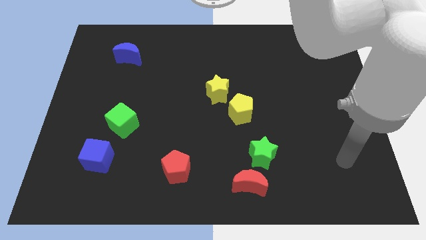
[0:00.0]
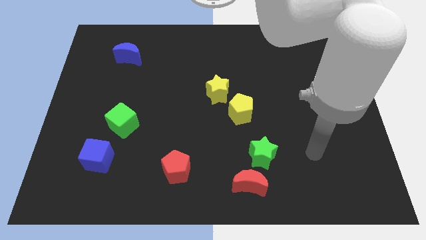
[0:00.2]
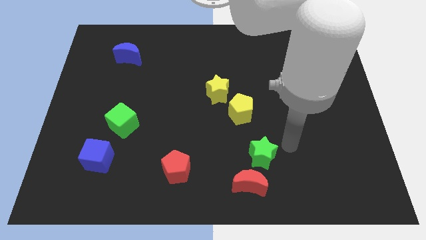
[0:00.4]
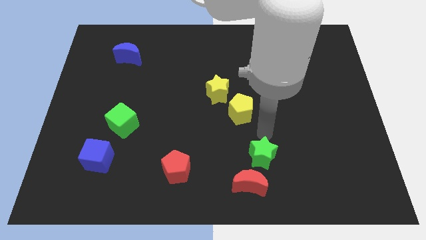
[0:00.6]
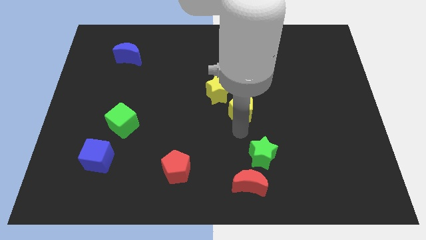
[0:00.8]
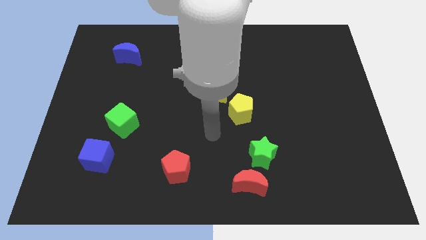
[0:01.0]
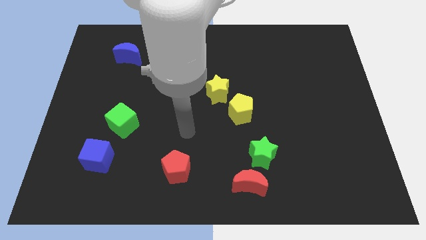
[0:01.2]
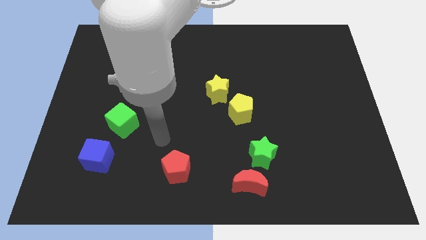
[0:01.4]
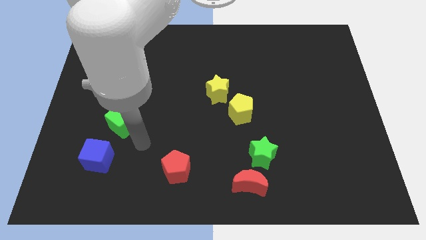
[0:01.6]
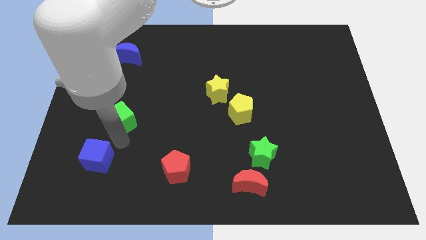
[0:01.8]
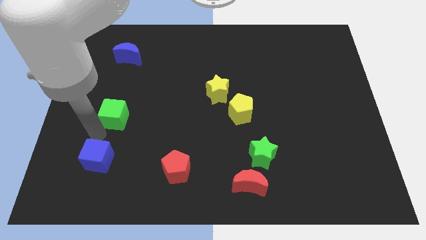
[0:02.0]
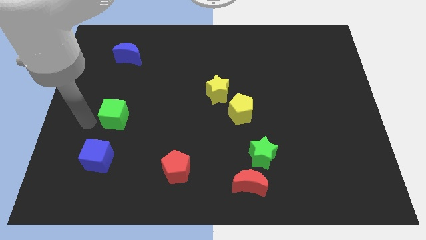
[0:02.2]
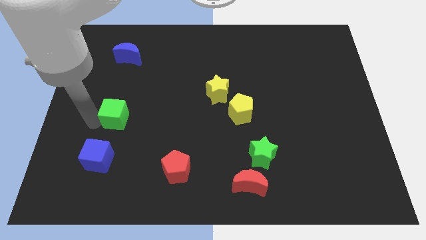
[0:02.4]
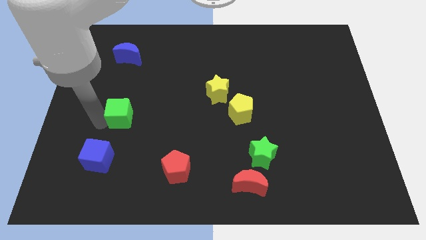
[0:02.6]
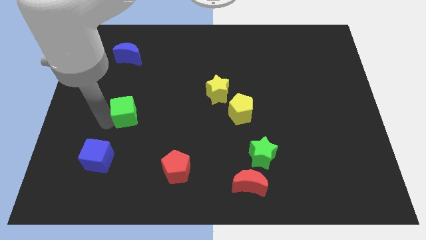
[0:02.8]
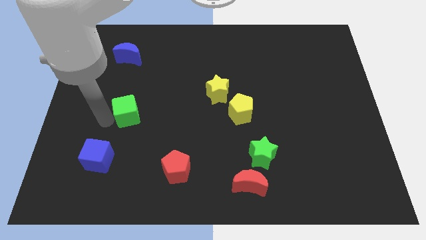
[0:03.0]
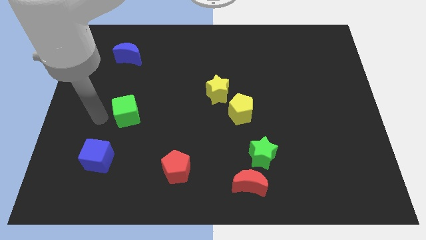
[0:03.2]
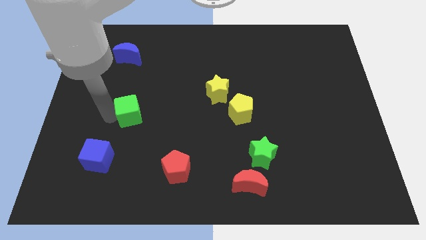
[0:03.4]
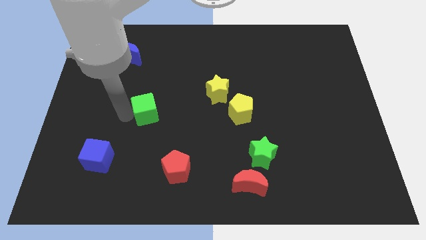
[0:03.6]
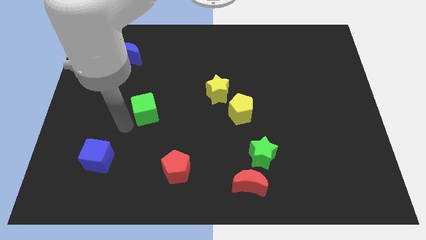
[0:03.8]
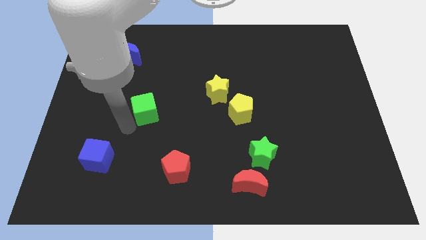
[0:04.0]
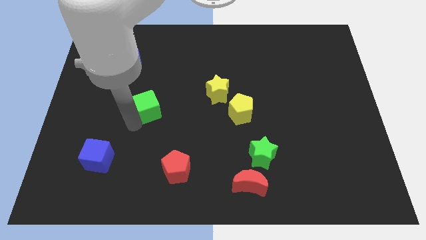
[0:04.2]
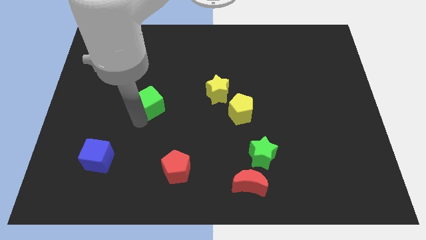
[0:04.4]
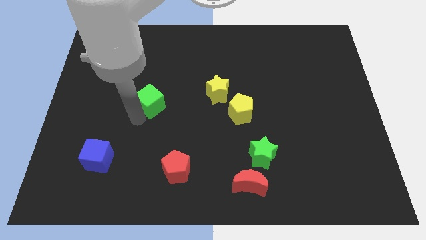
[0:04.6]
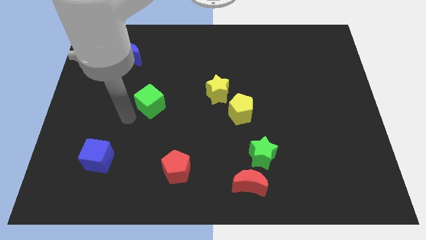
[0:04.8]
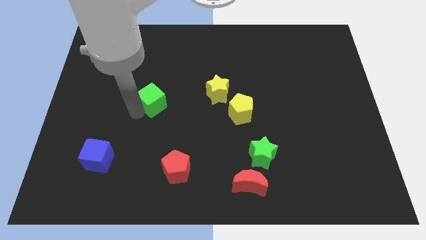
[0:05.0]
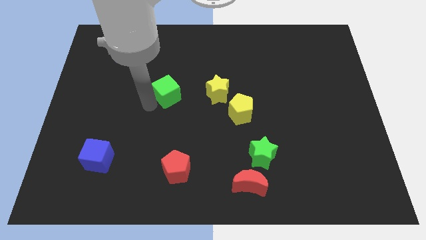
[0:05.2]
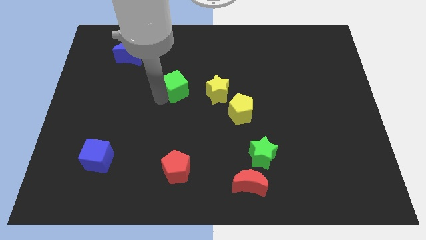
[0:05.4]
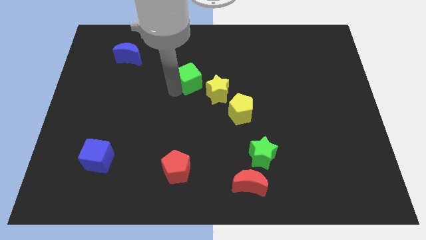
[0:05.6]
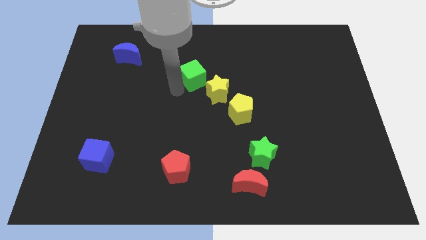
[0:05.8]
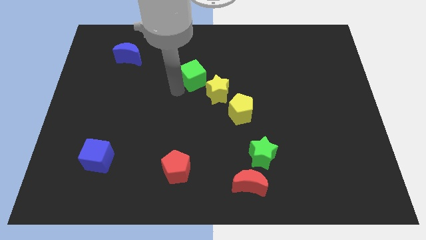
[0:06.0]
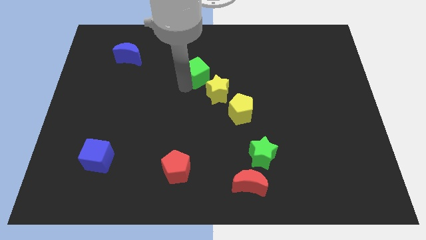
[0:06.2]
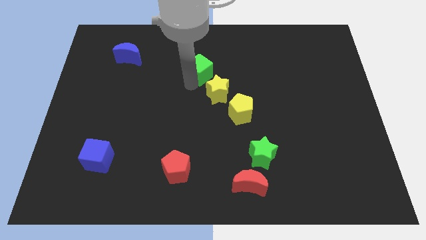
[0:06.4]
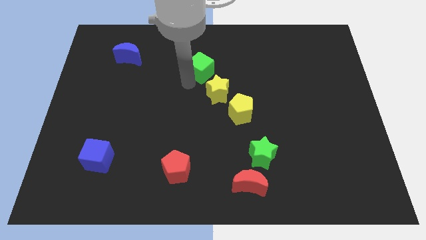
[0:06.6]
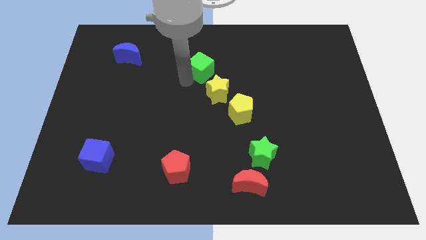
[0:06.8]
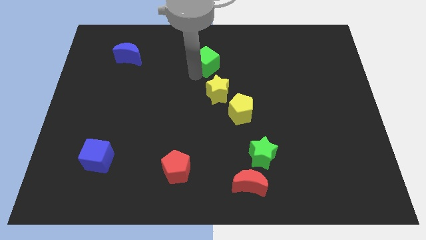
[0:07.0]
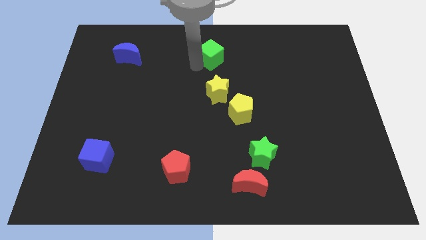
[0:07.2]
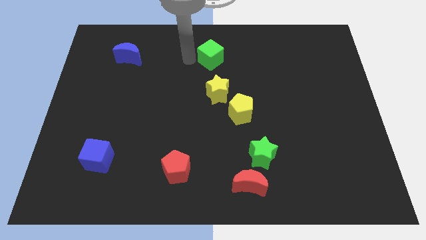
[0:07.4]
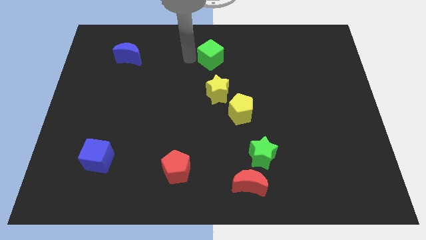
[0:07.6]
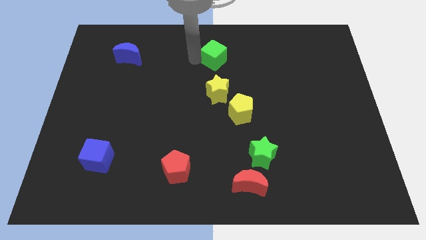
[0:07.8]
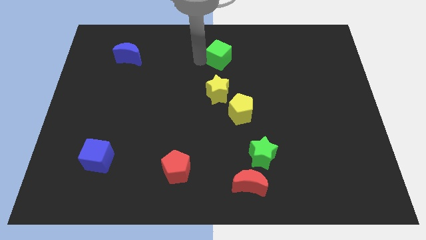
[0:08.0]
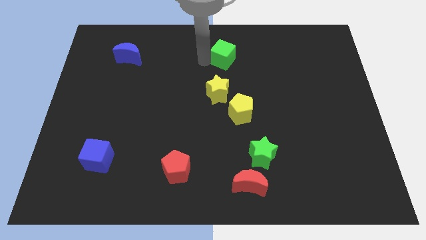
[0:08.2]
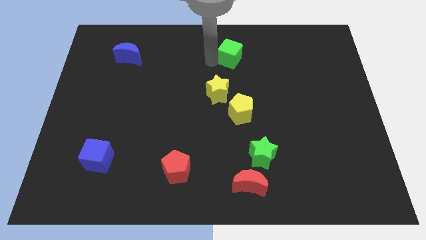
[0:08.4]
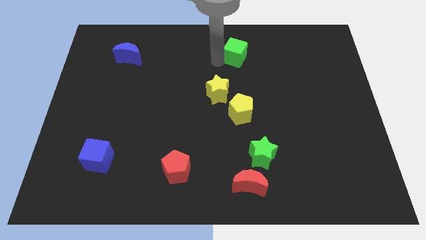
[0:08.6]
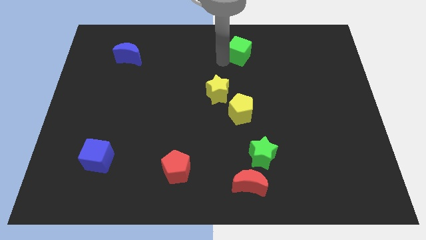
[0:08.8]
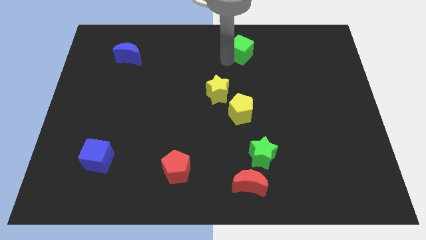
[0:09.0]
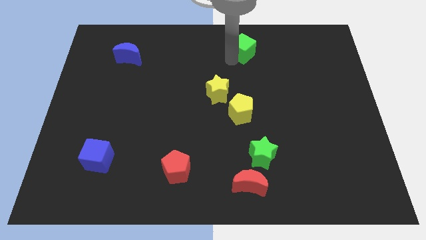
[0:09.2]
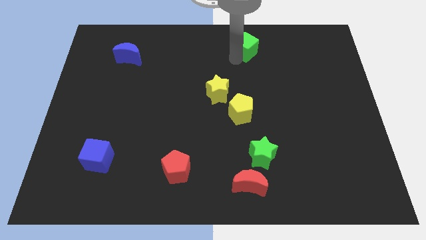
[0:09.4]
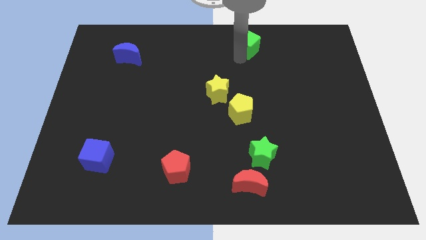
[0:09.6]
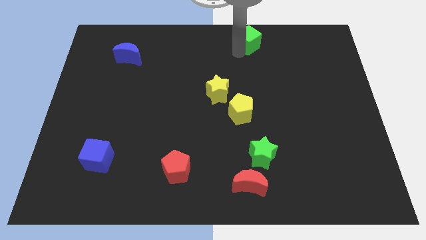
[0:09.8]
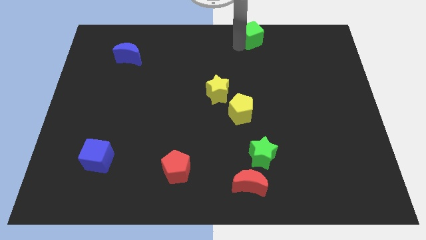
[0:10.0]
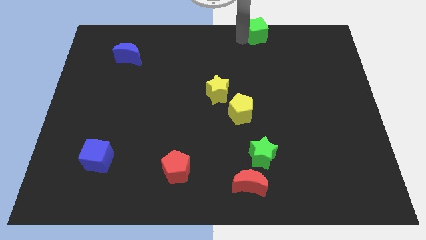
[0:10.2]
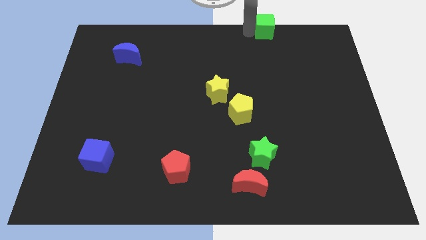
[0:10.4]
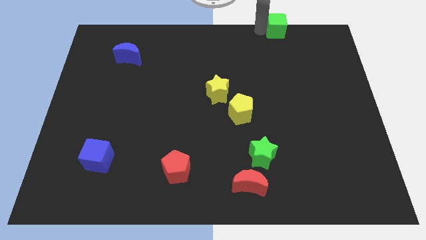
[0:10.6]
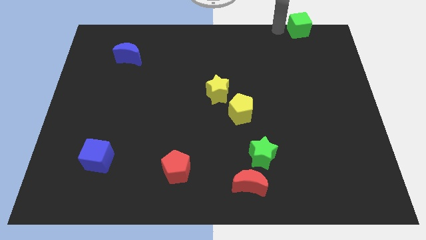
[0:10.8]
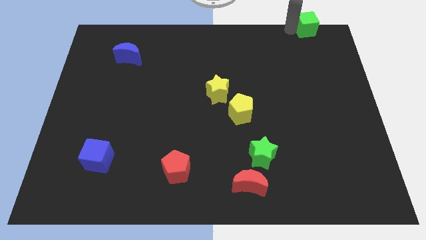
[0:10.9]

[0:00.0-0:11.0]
slide the green cube to the upper right corner

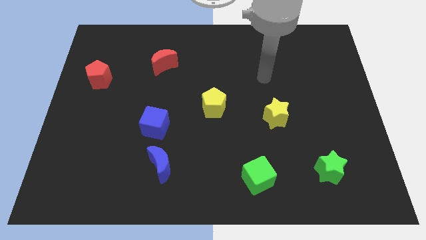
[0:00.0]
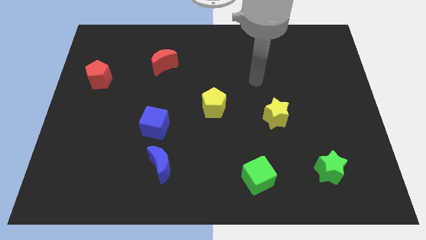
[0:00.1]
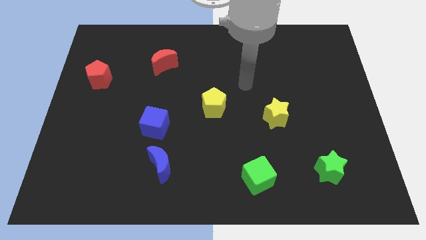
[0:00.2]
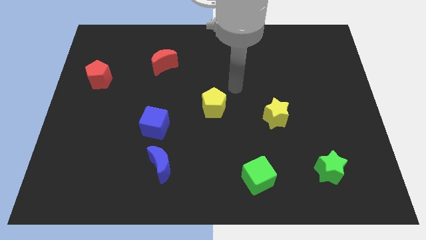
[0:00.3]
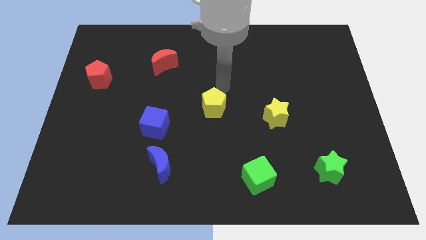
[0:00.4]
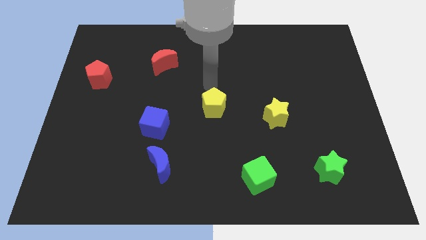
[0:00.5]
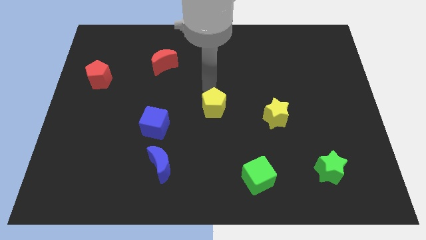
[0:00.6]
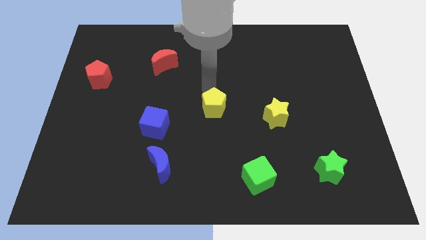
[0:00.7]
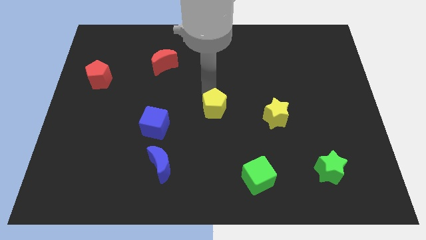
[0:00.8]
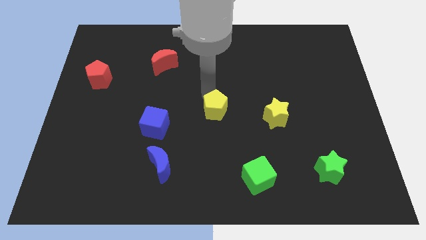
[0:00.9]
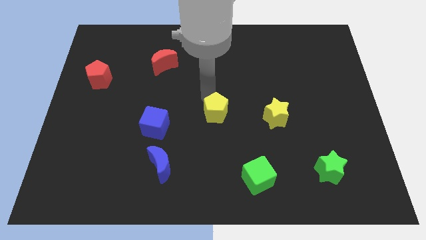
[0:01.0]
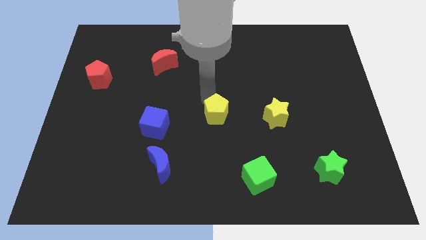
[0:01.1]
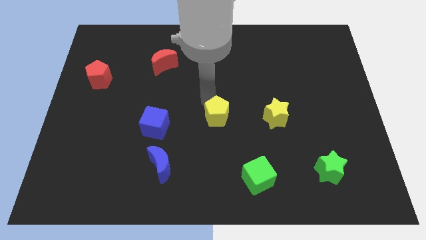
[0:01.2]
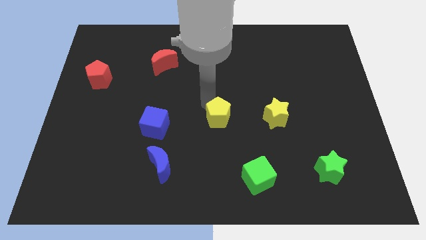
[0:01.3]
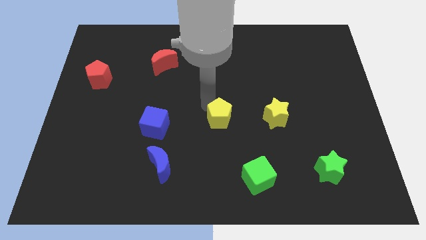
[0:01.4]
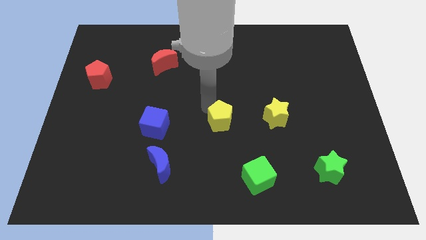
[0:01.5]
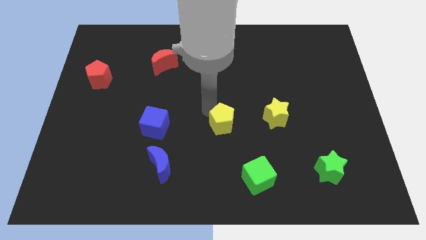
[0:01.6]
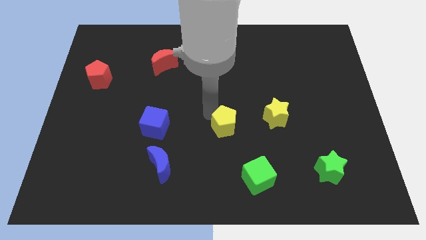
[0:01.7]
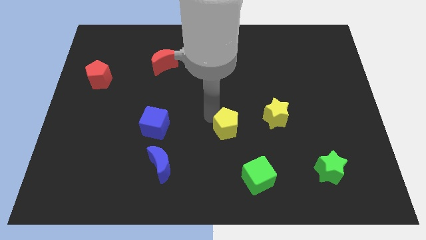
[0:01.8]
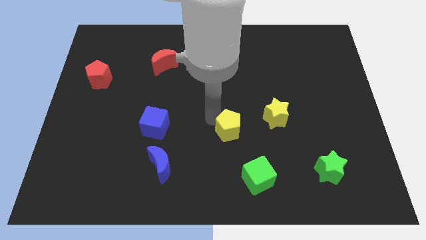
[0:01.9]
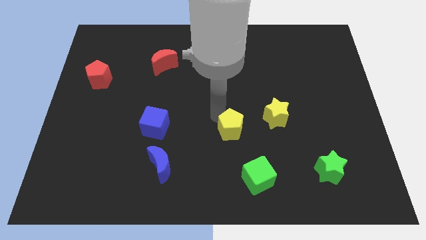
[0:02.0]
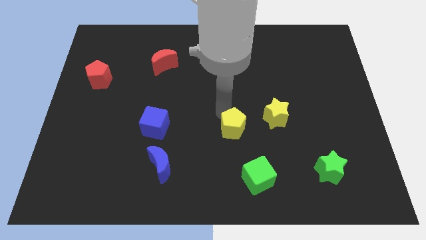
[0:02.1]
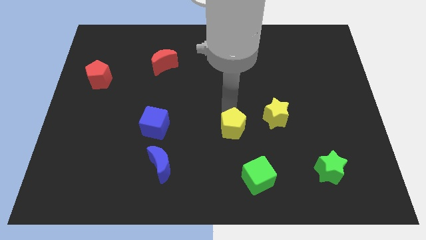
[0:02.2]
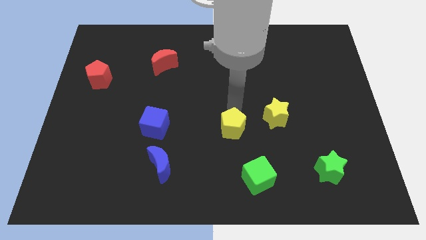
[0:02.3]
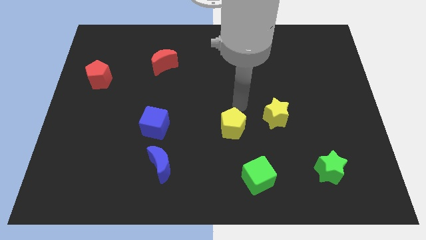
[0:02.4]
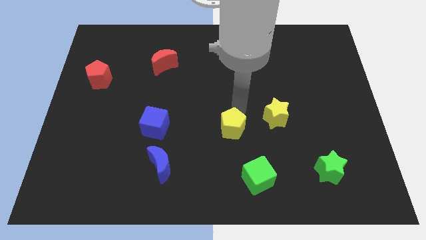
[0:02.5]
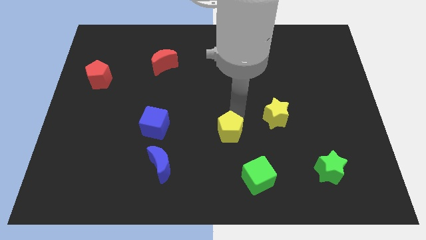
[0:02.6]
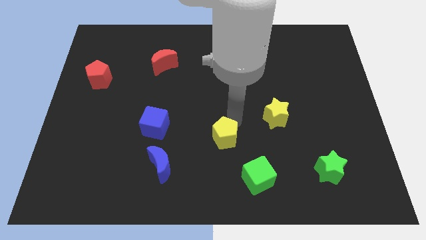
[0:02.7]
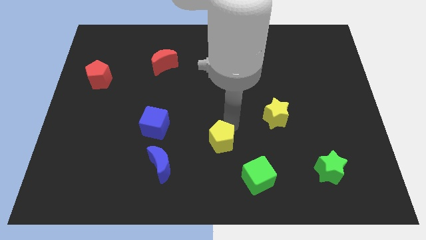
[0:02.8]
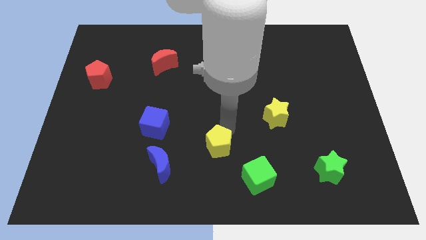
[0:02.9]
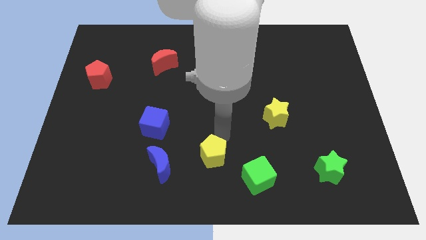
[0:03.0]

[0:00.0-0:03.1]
slide the yellow pentagon to the bottom side
